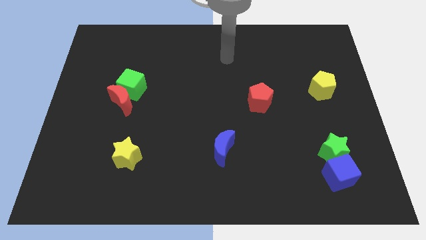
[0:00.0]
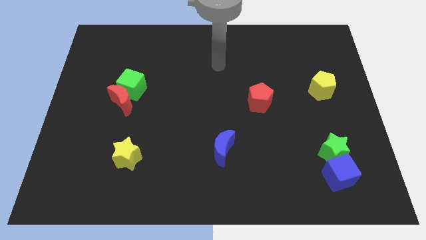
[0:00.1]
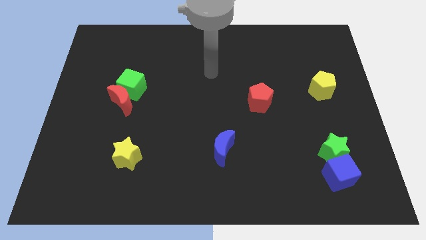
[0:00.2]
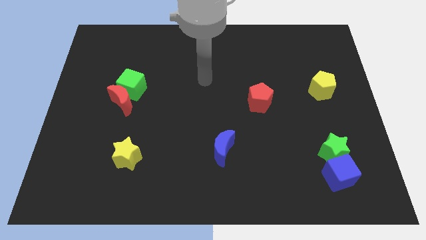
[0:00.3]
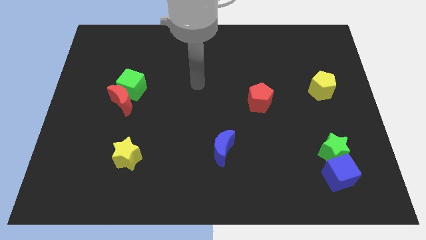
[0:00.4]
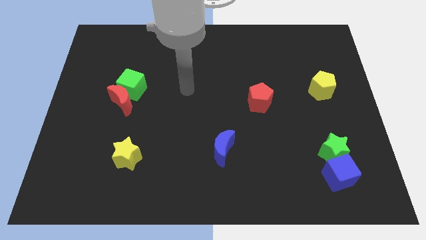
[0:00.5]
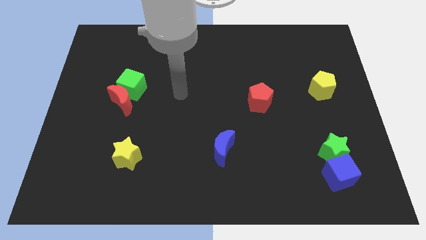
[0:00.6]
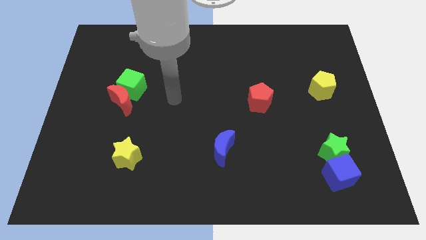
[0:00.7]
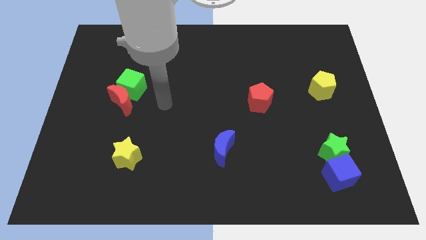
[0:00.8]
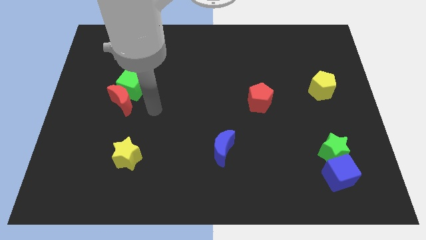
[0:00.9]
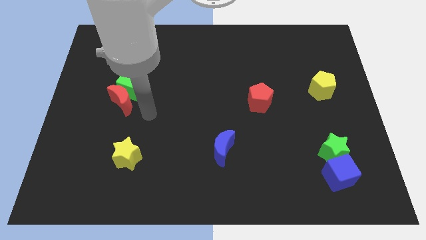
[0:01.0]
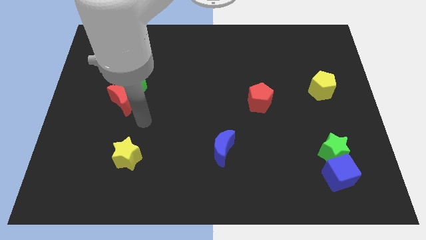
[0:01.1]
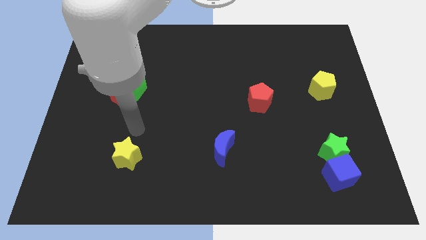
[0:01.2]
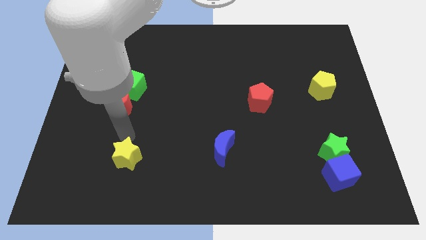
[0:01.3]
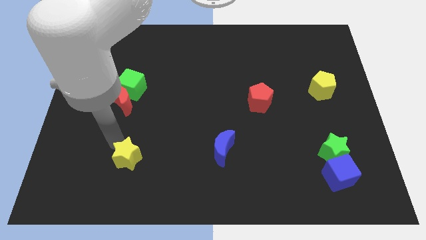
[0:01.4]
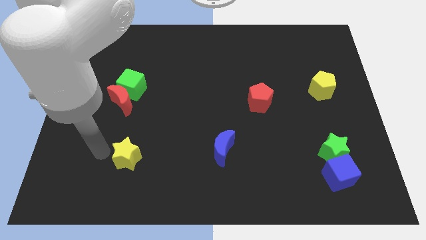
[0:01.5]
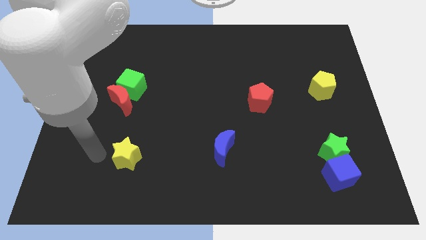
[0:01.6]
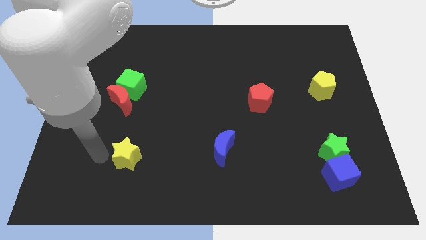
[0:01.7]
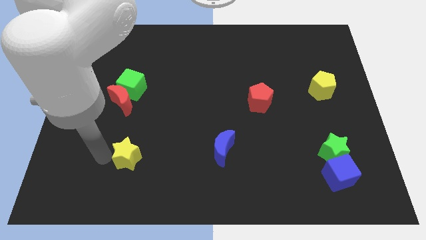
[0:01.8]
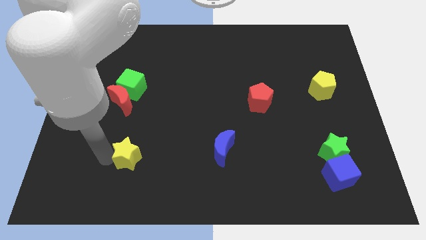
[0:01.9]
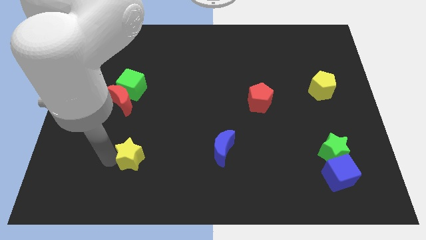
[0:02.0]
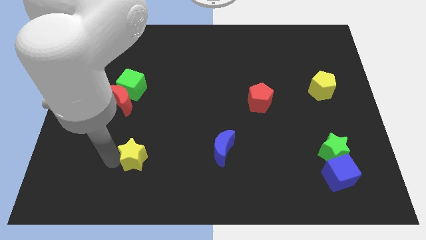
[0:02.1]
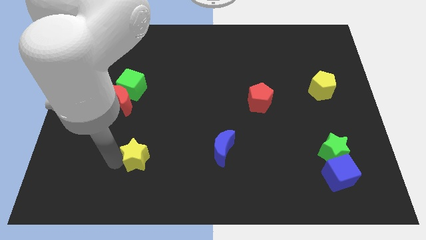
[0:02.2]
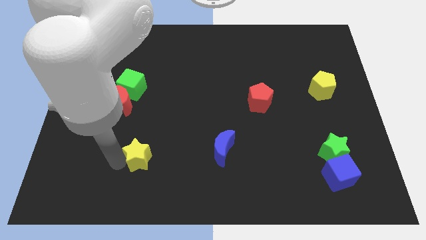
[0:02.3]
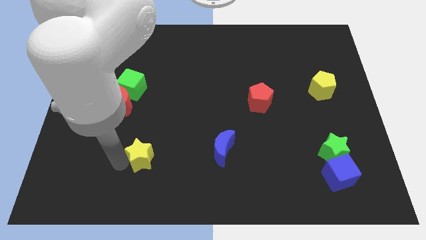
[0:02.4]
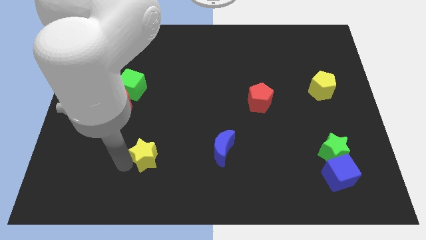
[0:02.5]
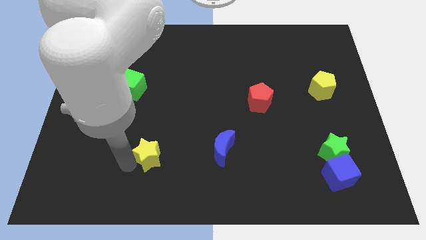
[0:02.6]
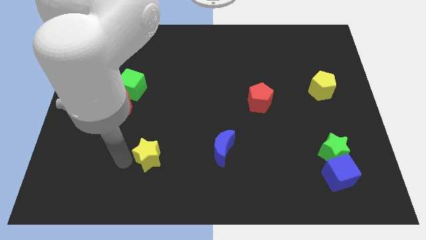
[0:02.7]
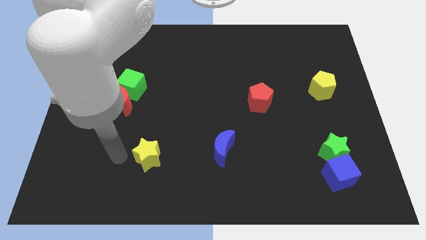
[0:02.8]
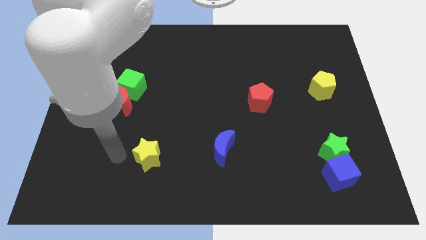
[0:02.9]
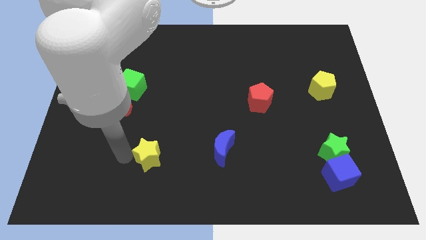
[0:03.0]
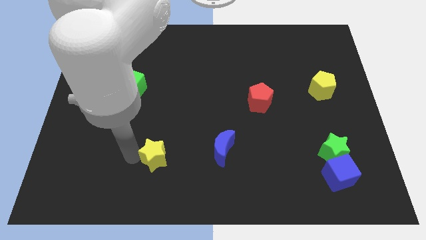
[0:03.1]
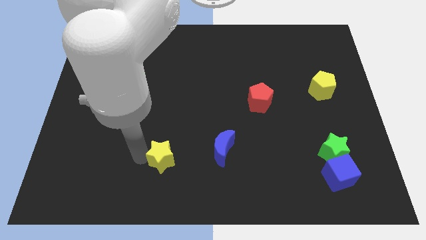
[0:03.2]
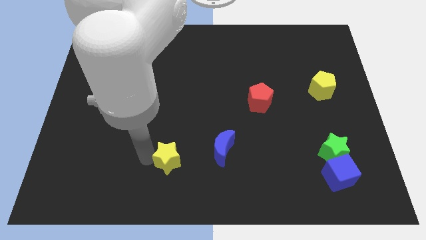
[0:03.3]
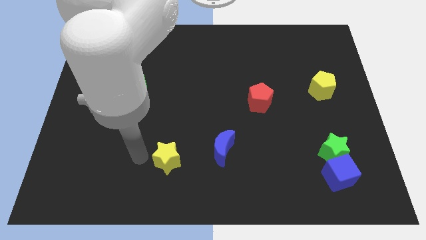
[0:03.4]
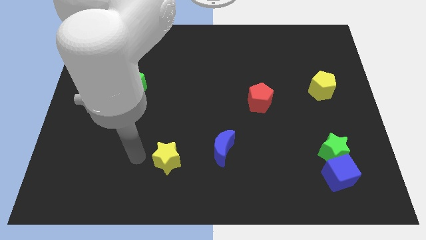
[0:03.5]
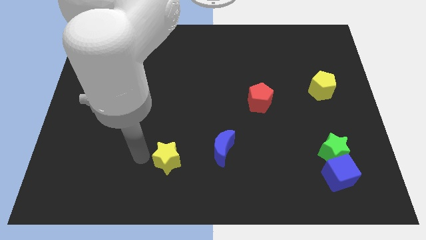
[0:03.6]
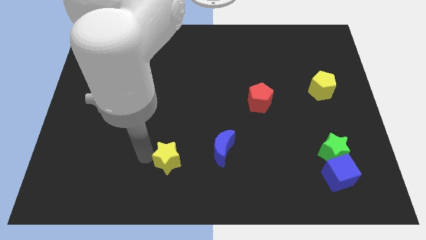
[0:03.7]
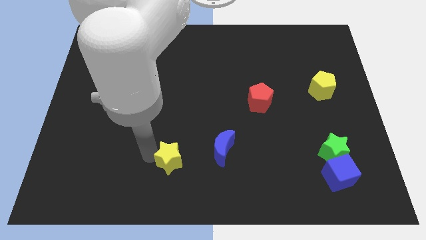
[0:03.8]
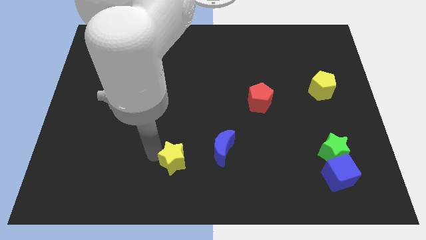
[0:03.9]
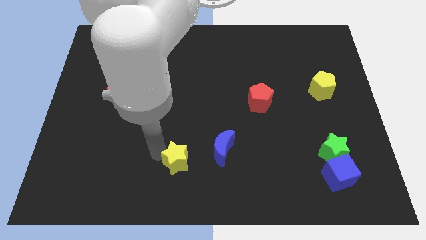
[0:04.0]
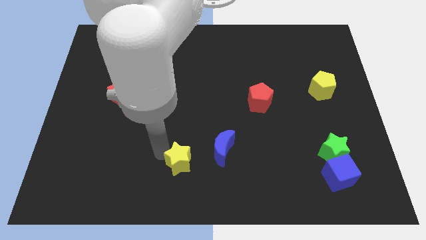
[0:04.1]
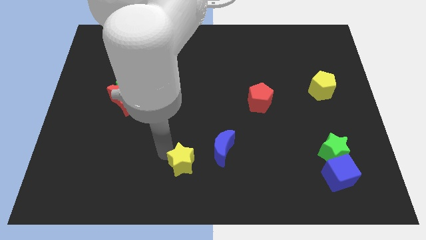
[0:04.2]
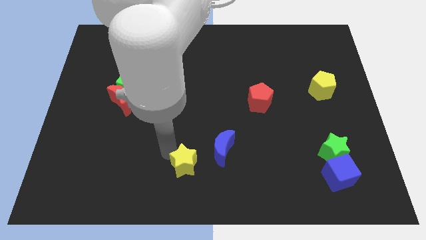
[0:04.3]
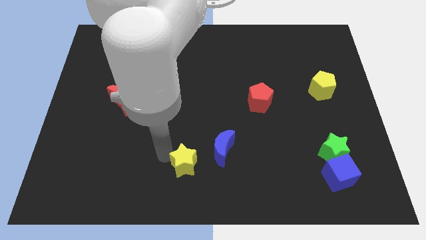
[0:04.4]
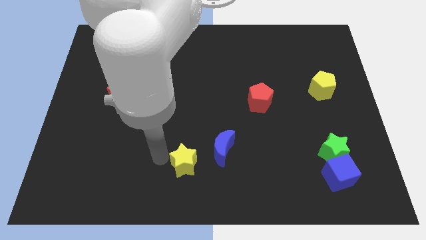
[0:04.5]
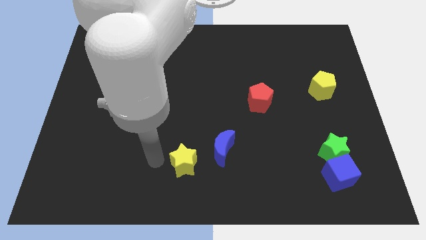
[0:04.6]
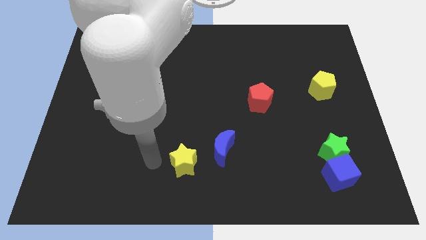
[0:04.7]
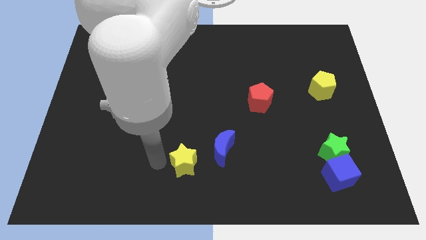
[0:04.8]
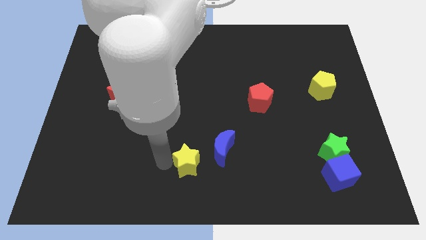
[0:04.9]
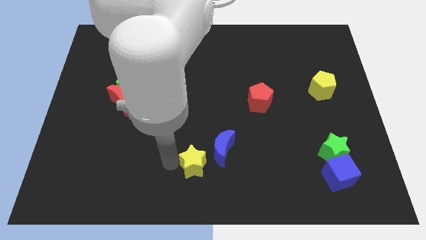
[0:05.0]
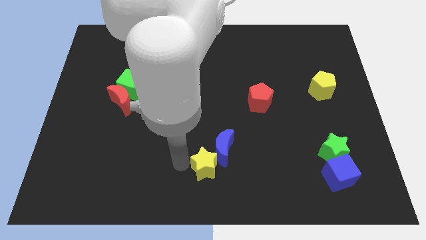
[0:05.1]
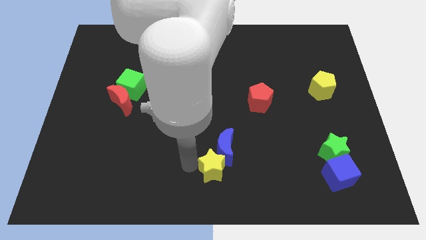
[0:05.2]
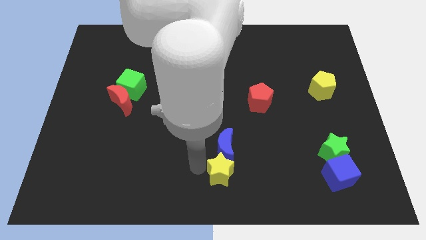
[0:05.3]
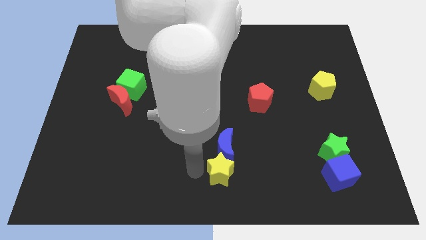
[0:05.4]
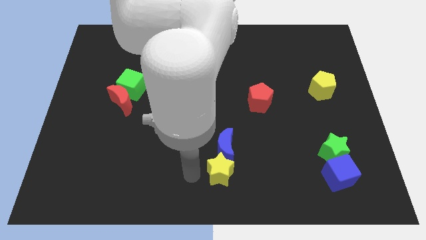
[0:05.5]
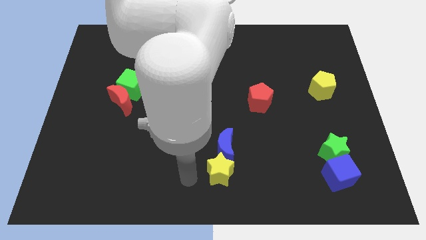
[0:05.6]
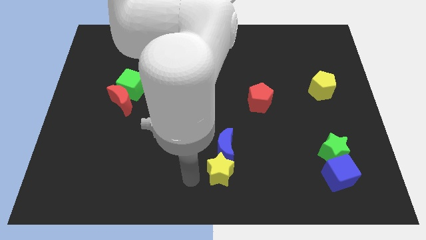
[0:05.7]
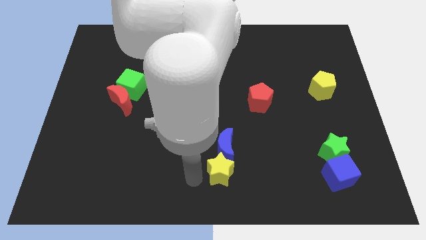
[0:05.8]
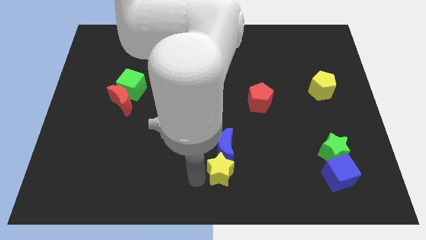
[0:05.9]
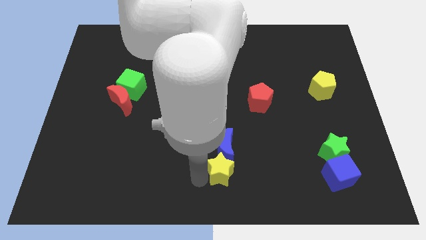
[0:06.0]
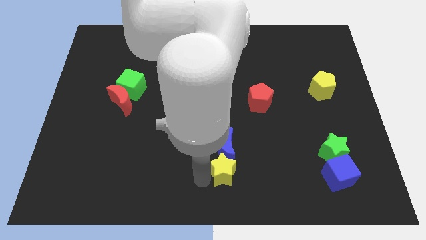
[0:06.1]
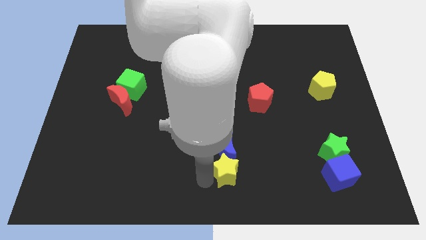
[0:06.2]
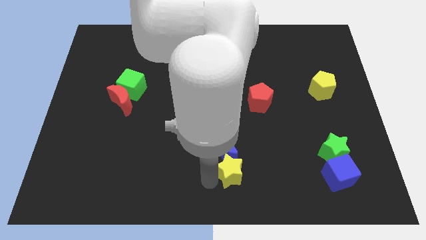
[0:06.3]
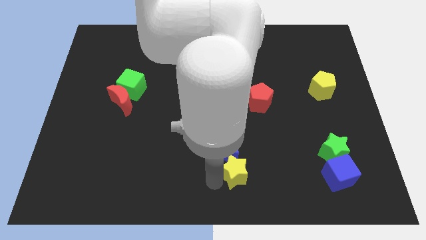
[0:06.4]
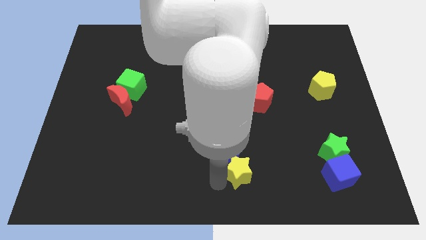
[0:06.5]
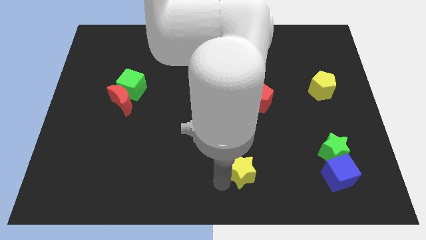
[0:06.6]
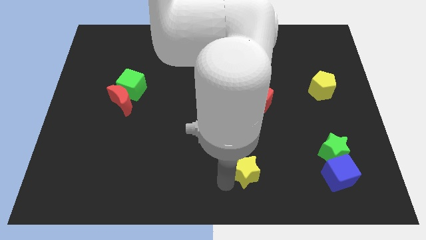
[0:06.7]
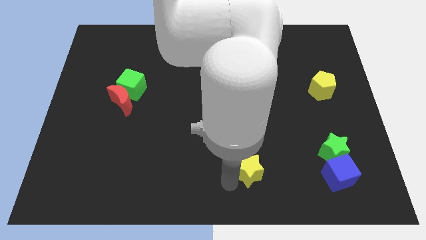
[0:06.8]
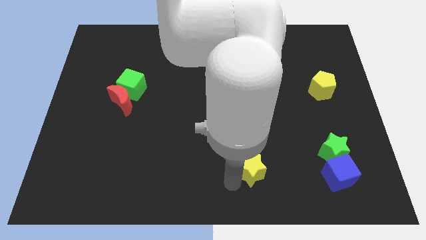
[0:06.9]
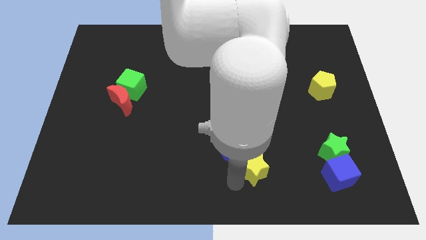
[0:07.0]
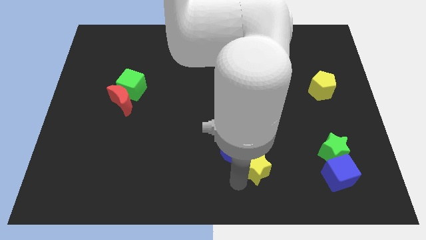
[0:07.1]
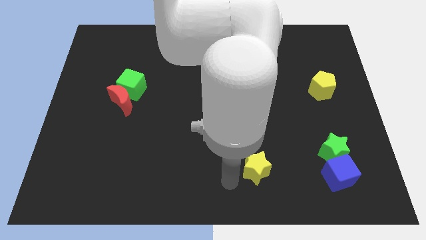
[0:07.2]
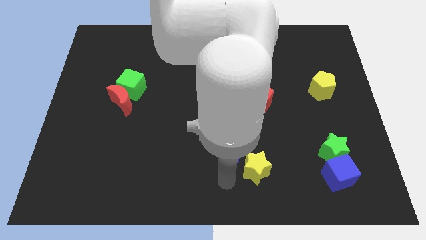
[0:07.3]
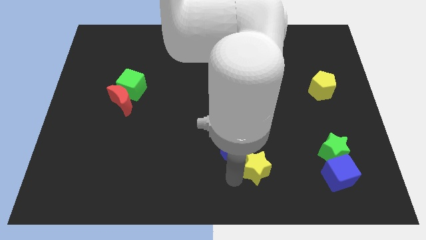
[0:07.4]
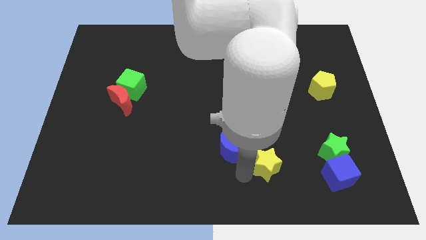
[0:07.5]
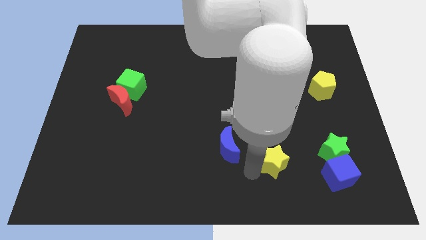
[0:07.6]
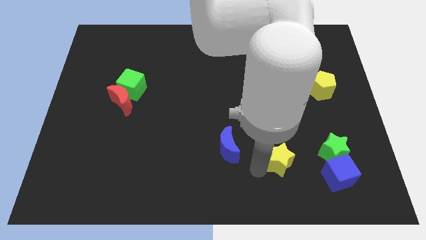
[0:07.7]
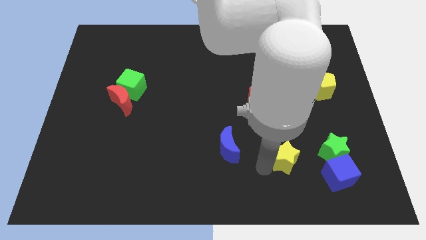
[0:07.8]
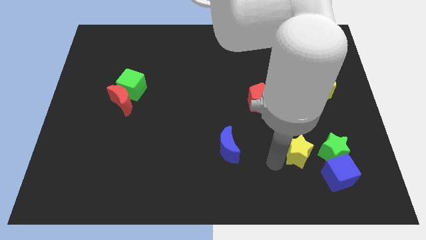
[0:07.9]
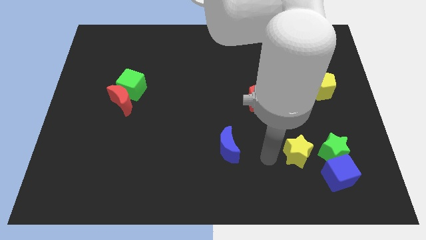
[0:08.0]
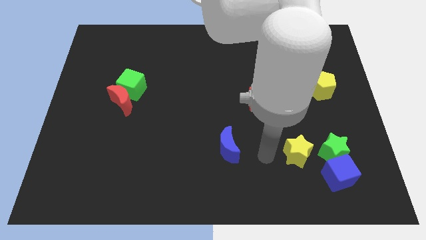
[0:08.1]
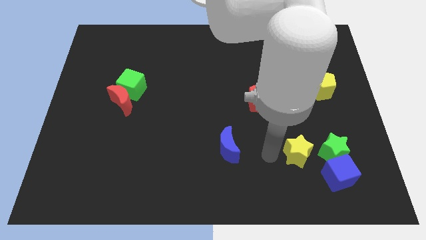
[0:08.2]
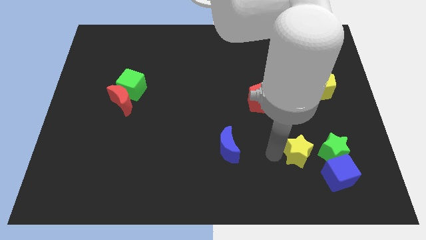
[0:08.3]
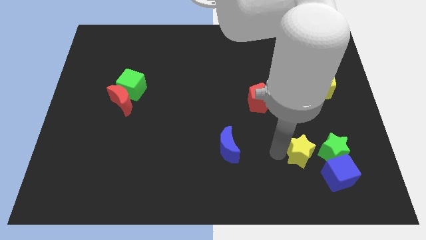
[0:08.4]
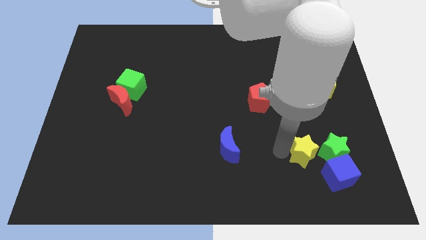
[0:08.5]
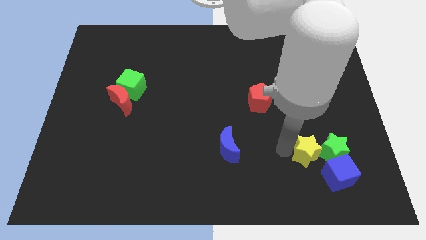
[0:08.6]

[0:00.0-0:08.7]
move the yellow star towards the green star
